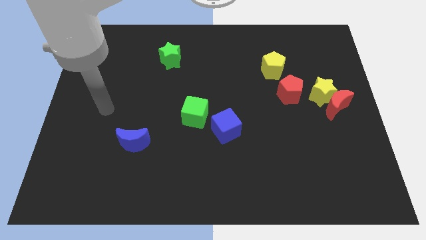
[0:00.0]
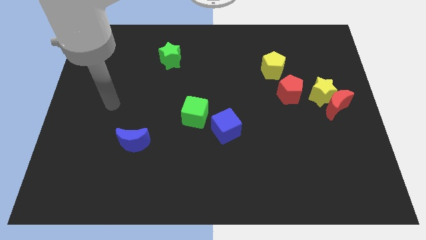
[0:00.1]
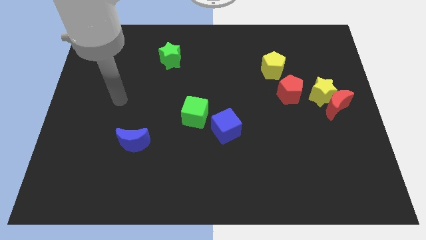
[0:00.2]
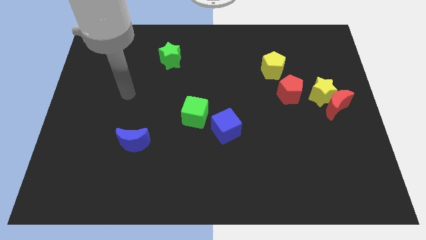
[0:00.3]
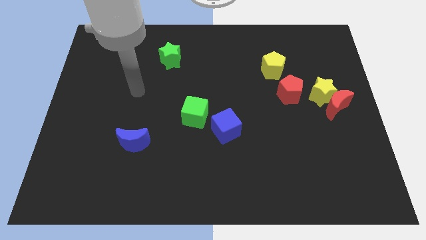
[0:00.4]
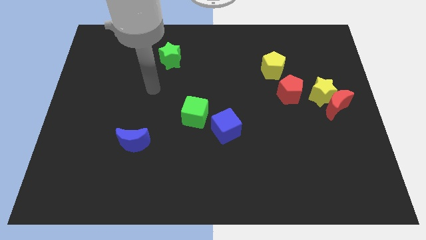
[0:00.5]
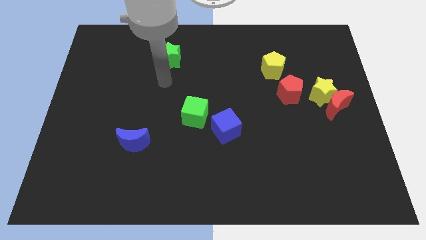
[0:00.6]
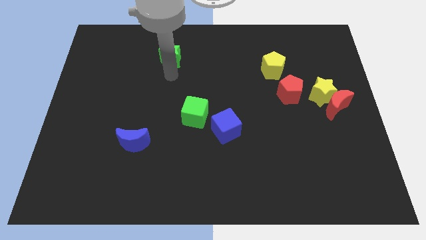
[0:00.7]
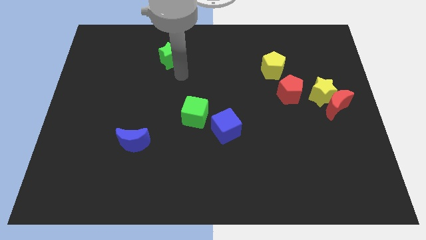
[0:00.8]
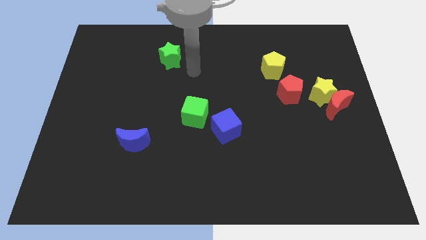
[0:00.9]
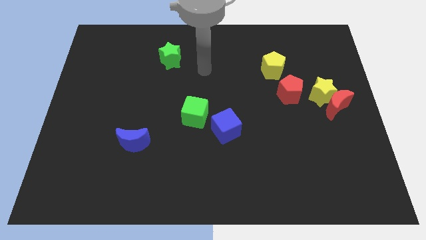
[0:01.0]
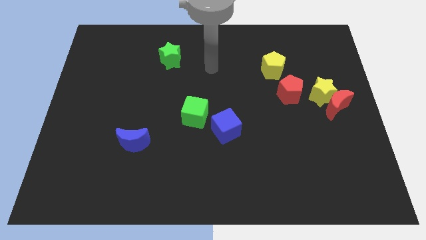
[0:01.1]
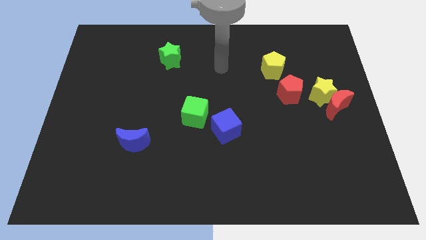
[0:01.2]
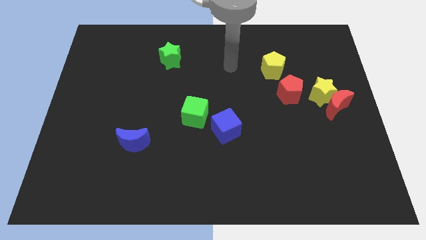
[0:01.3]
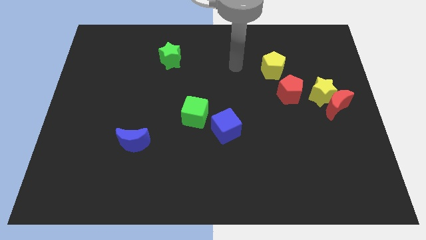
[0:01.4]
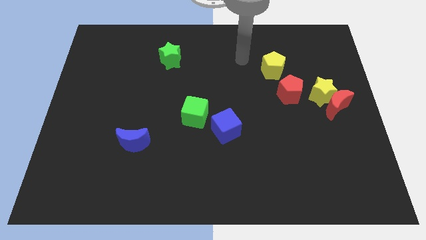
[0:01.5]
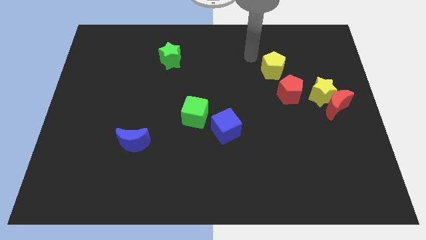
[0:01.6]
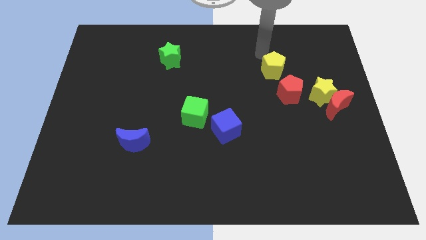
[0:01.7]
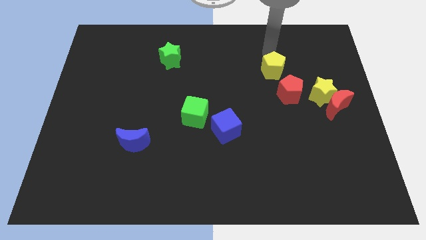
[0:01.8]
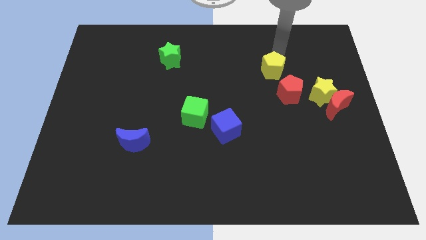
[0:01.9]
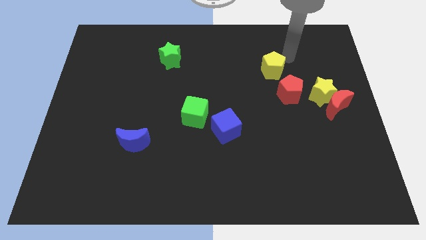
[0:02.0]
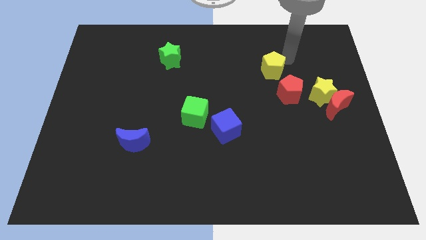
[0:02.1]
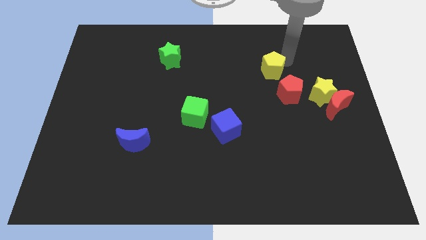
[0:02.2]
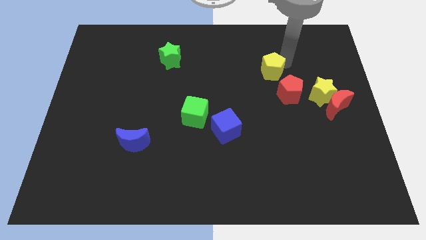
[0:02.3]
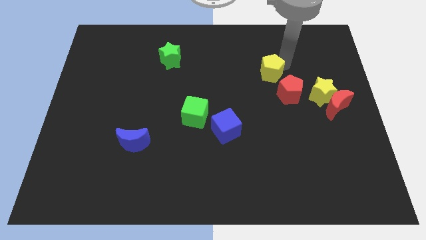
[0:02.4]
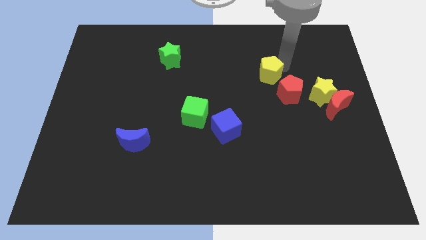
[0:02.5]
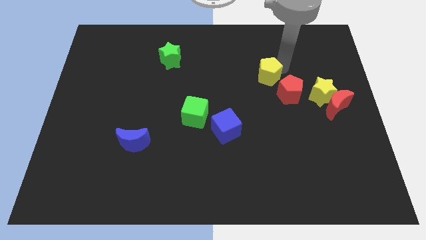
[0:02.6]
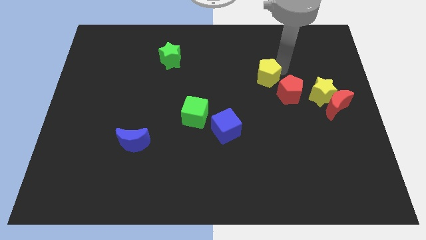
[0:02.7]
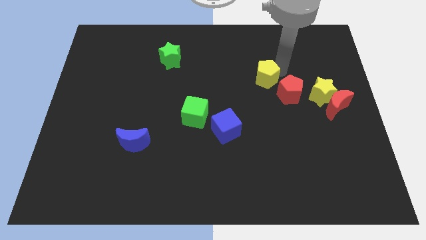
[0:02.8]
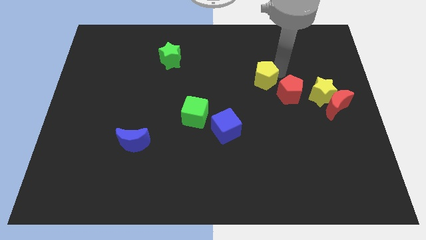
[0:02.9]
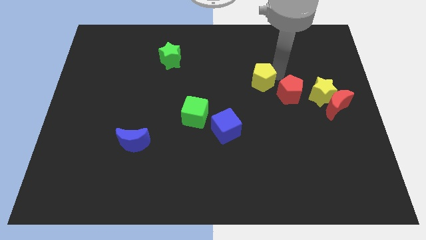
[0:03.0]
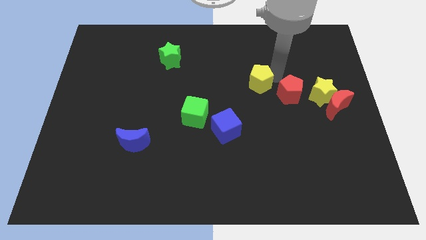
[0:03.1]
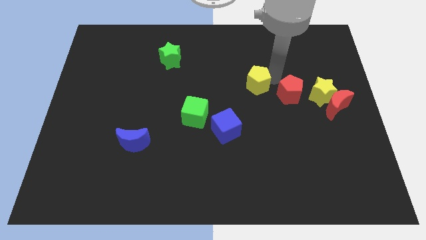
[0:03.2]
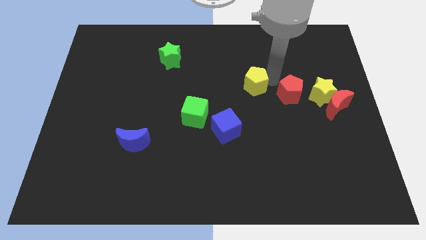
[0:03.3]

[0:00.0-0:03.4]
slightly push the yellow pentagon downwards and then to the left

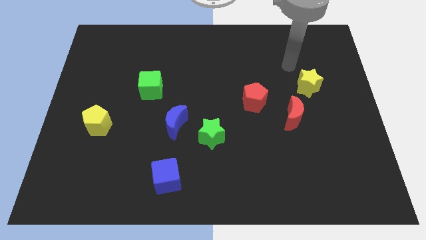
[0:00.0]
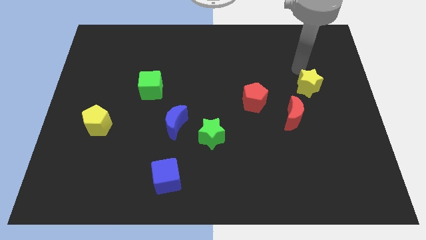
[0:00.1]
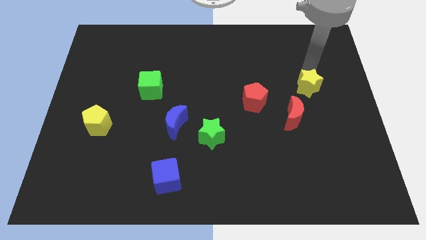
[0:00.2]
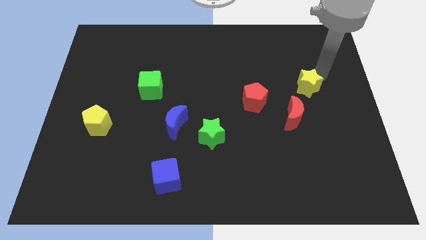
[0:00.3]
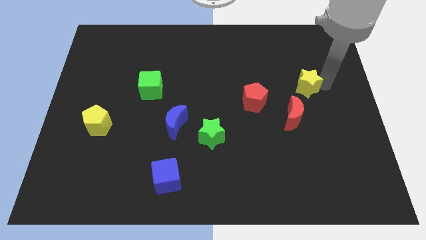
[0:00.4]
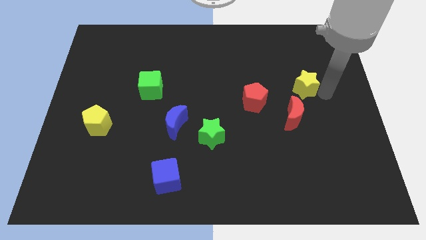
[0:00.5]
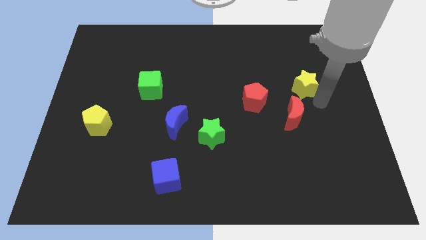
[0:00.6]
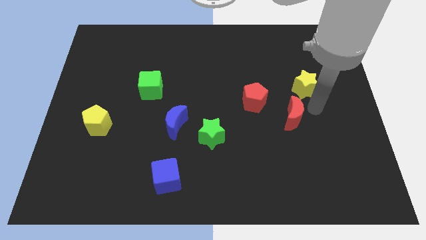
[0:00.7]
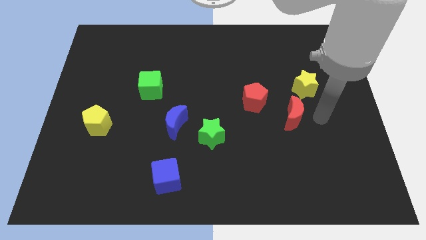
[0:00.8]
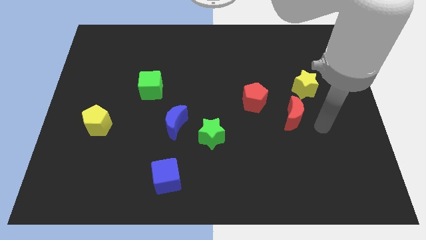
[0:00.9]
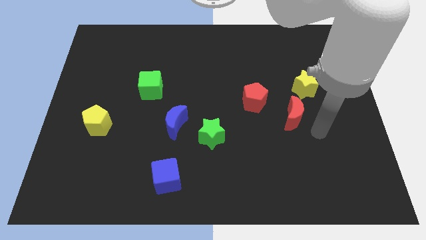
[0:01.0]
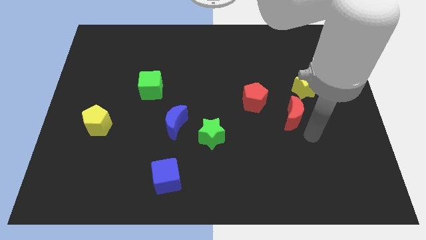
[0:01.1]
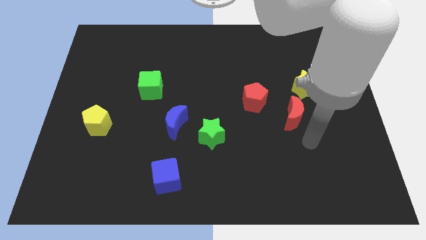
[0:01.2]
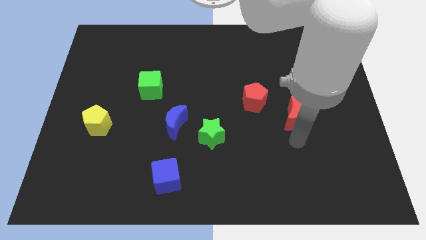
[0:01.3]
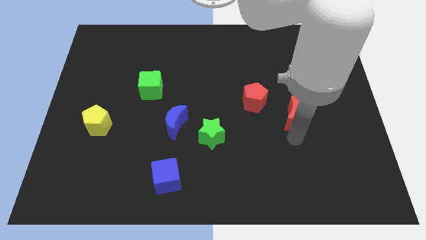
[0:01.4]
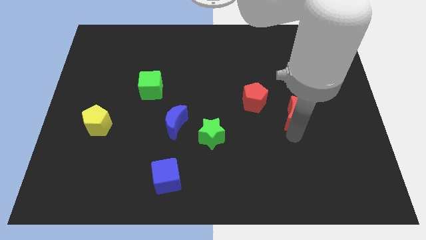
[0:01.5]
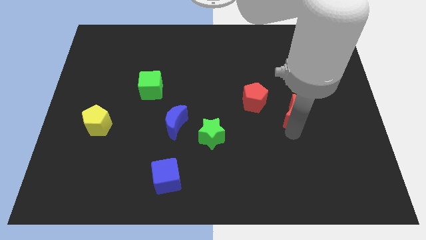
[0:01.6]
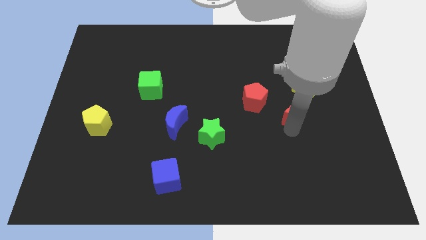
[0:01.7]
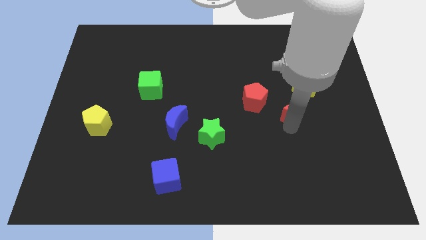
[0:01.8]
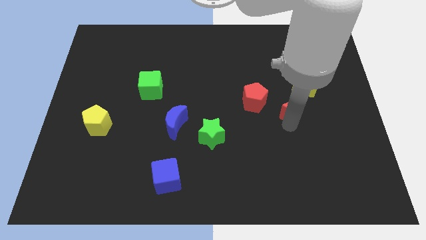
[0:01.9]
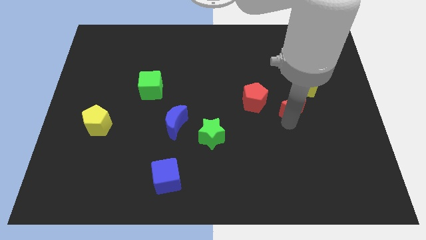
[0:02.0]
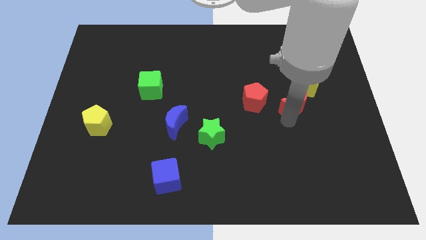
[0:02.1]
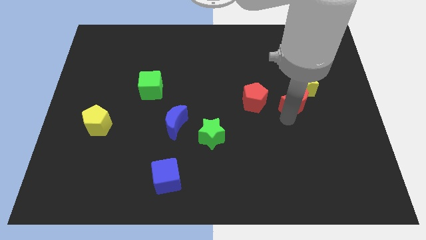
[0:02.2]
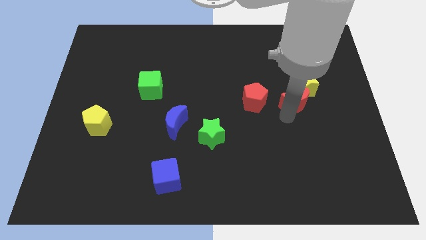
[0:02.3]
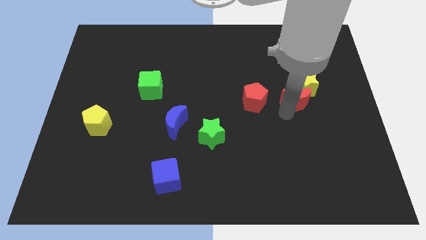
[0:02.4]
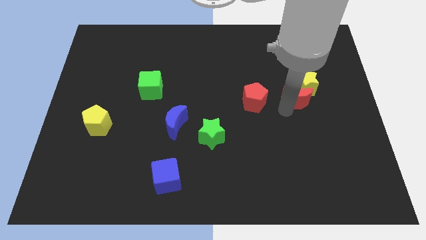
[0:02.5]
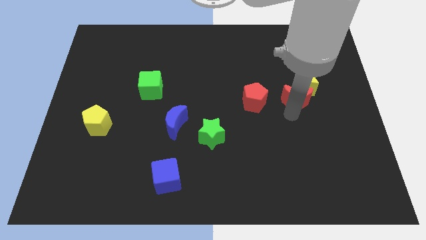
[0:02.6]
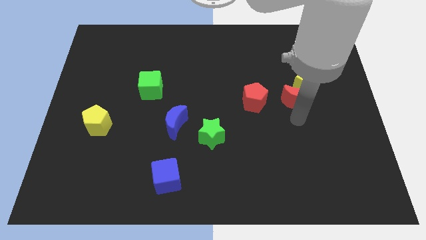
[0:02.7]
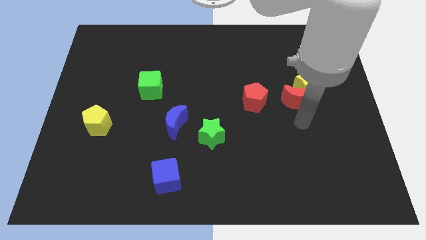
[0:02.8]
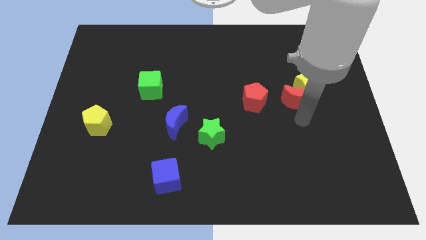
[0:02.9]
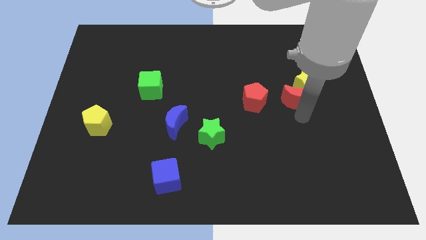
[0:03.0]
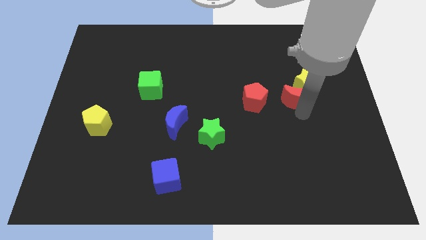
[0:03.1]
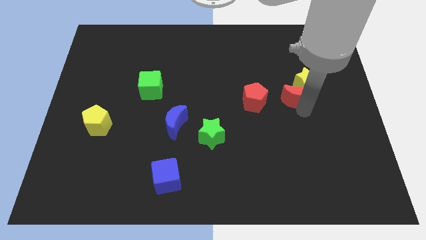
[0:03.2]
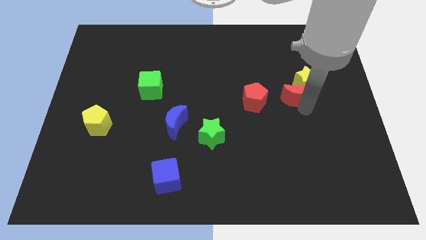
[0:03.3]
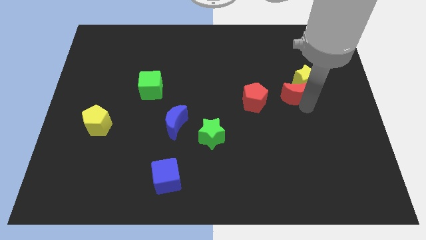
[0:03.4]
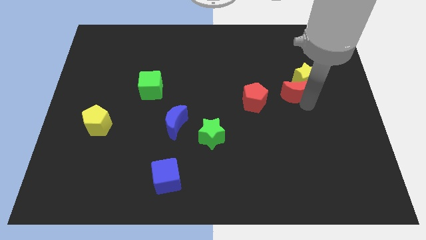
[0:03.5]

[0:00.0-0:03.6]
push the red moon a little upwards

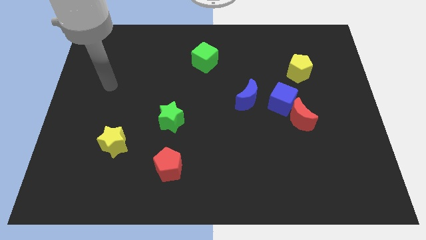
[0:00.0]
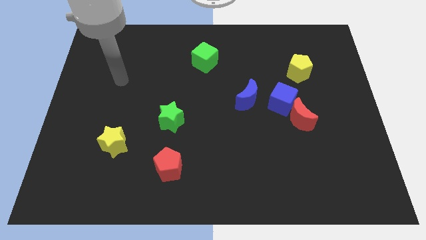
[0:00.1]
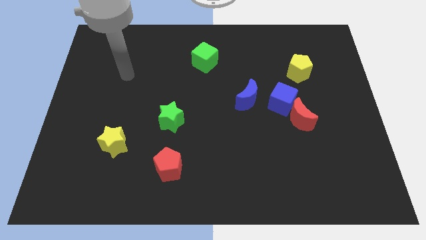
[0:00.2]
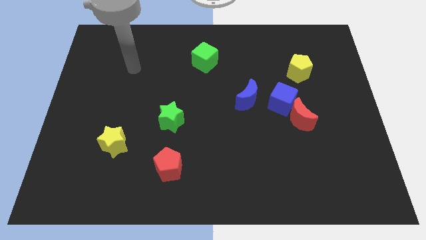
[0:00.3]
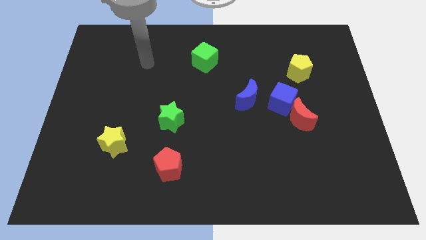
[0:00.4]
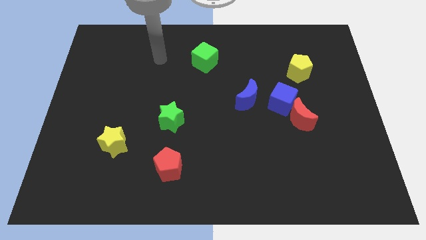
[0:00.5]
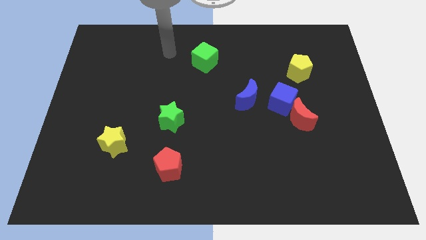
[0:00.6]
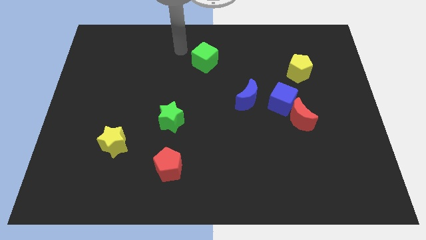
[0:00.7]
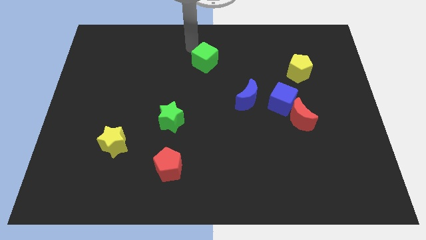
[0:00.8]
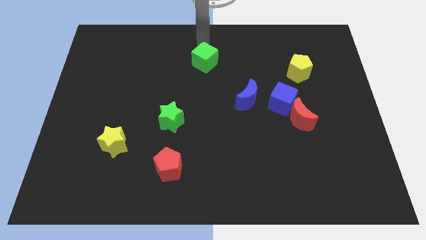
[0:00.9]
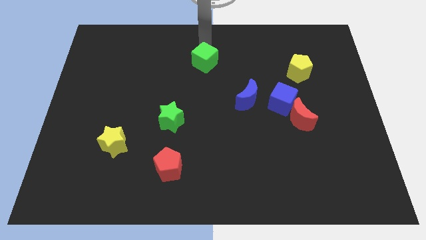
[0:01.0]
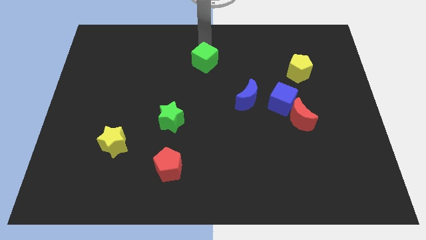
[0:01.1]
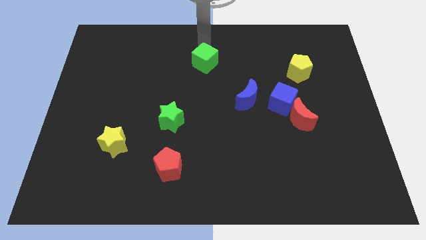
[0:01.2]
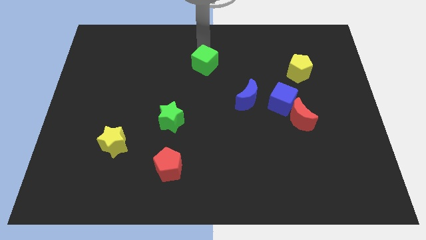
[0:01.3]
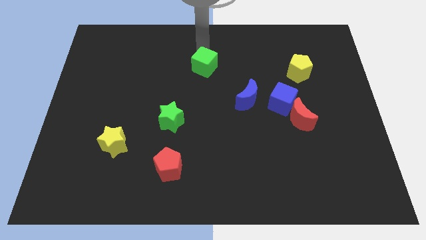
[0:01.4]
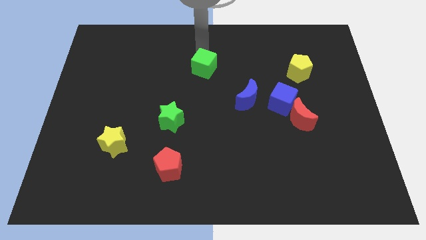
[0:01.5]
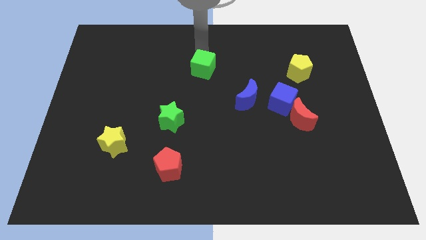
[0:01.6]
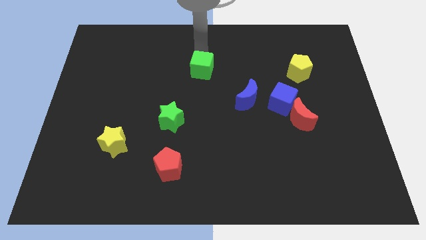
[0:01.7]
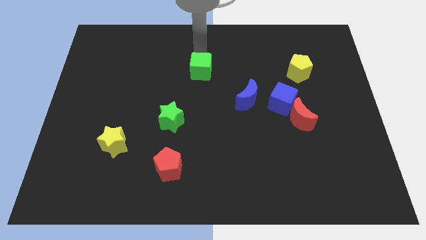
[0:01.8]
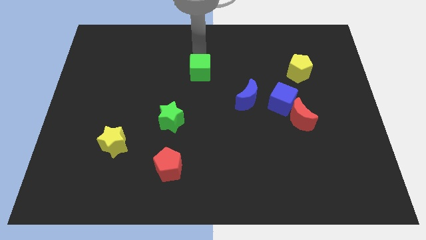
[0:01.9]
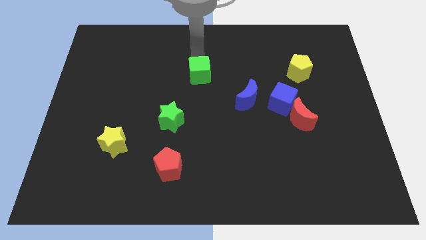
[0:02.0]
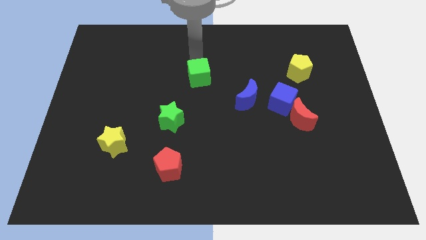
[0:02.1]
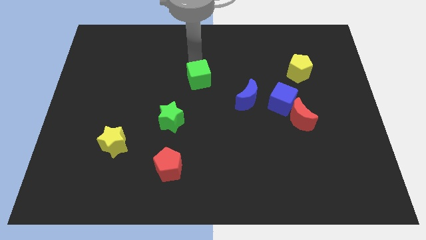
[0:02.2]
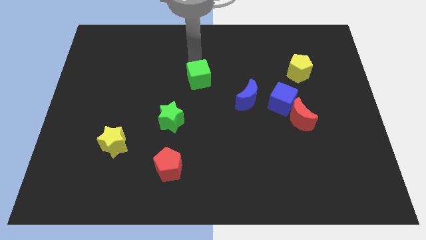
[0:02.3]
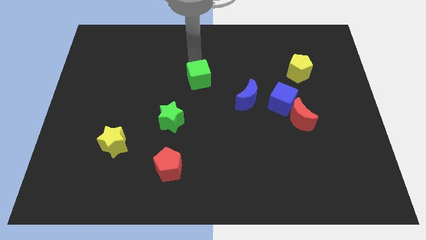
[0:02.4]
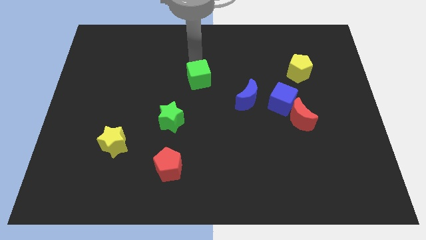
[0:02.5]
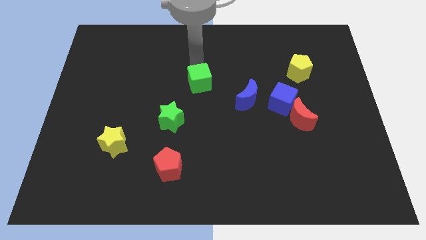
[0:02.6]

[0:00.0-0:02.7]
push the green cube a little bit downwards
